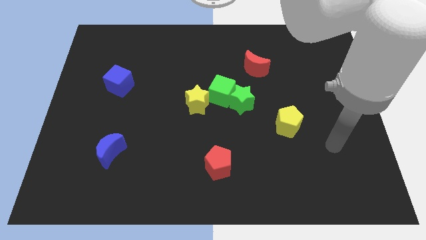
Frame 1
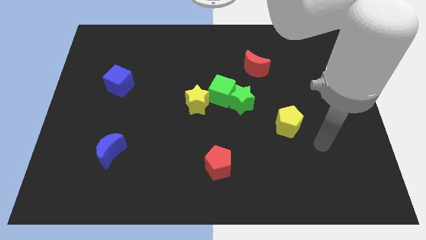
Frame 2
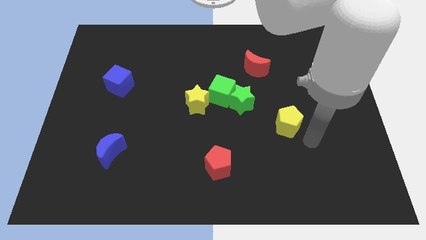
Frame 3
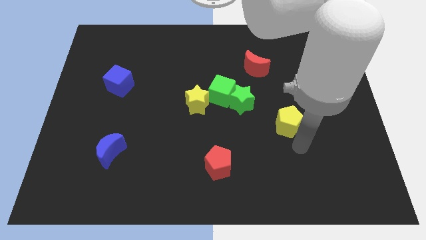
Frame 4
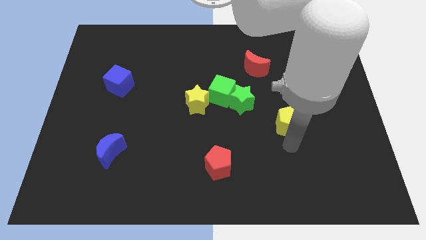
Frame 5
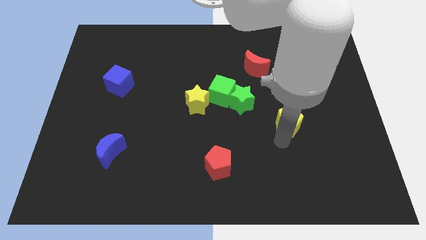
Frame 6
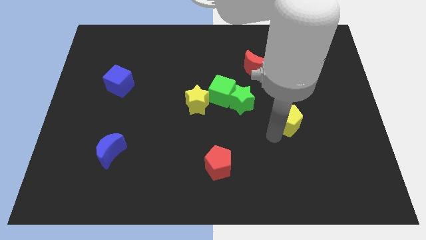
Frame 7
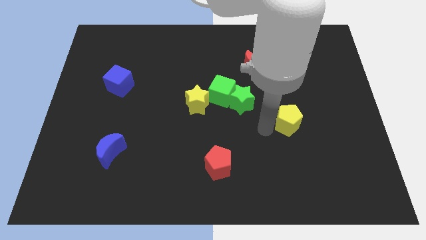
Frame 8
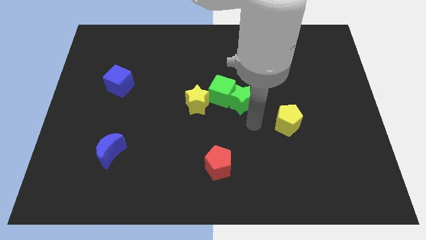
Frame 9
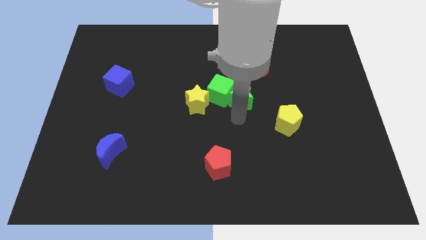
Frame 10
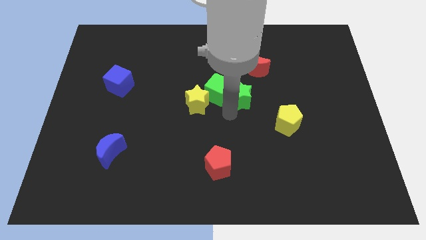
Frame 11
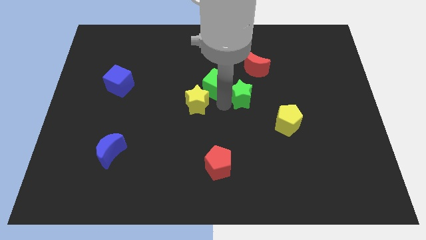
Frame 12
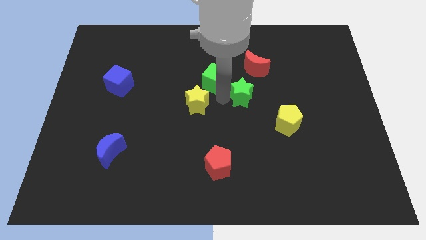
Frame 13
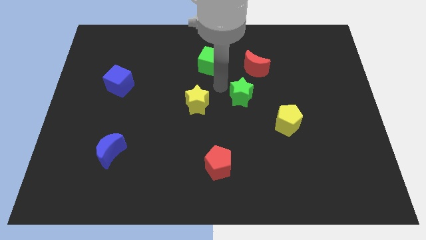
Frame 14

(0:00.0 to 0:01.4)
separate the green star from the green cube

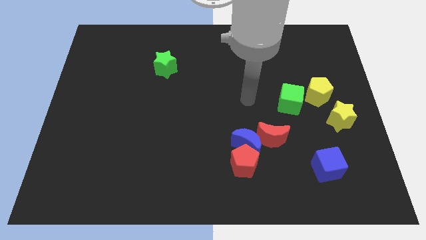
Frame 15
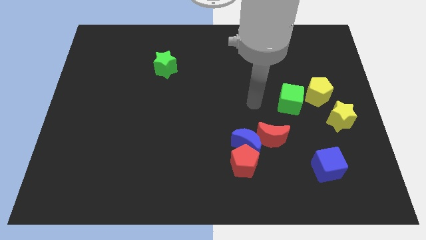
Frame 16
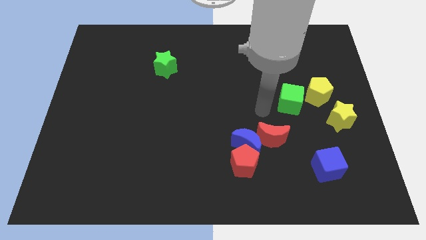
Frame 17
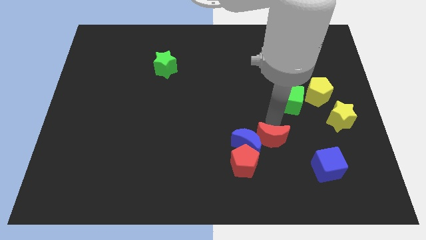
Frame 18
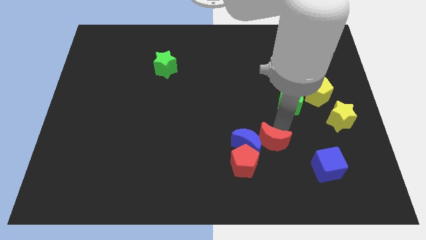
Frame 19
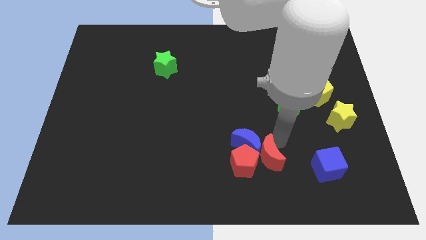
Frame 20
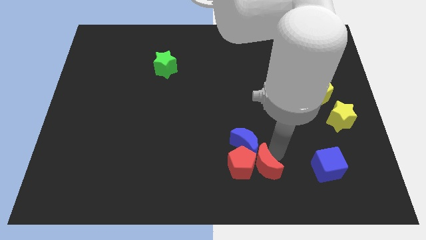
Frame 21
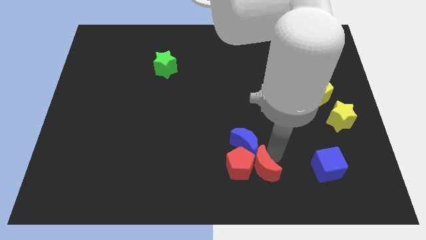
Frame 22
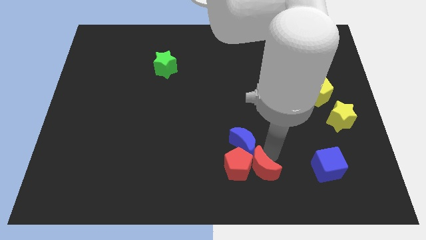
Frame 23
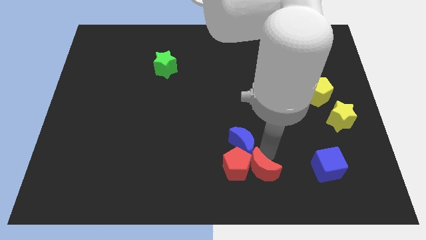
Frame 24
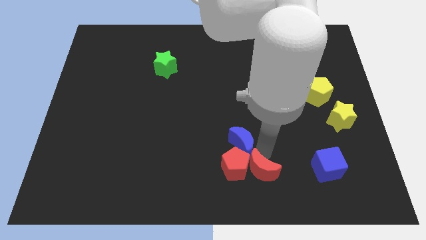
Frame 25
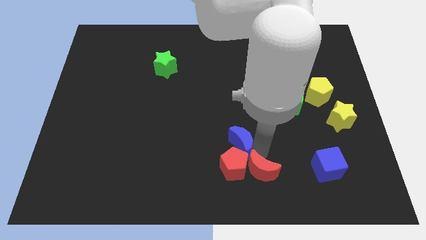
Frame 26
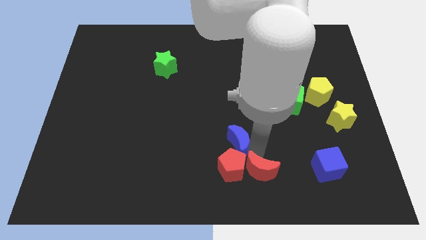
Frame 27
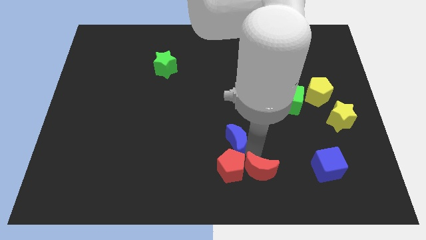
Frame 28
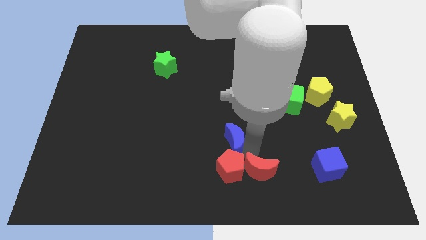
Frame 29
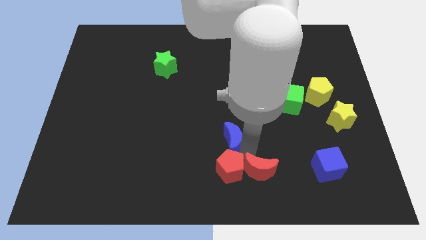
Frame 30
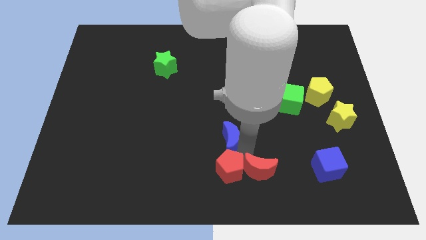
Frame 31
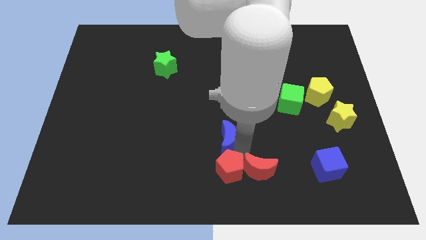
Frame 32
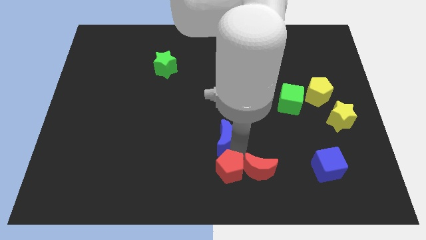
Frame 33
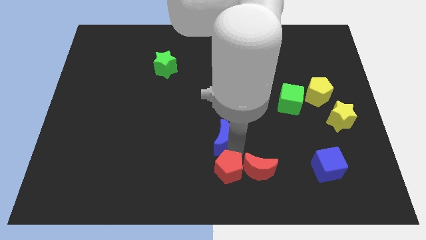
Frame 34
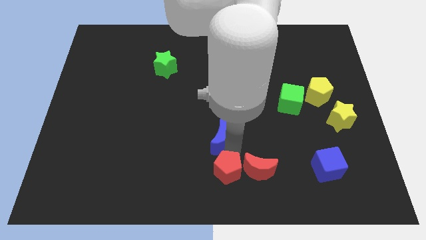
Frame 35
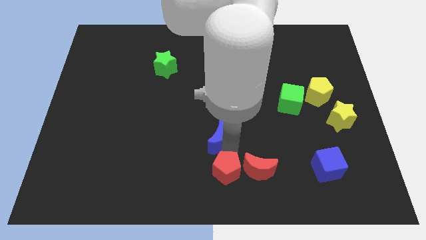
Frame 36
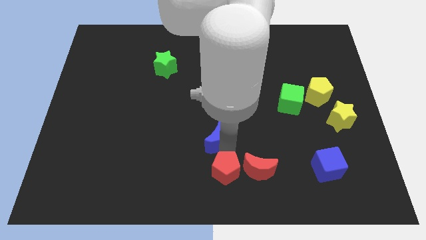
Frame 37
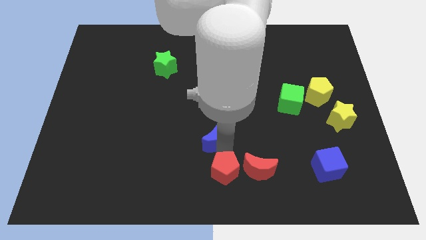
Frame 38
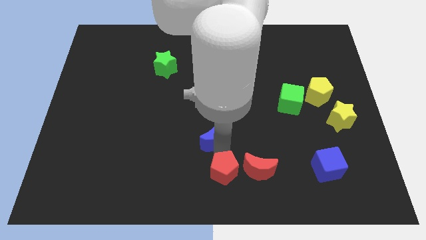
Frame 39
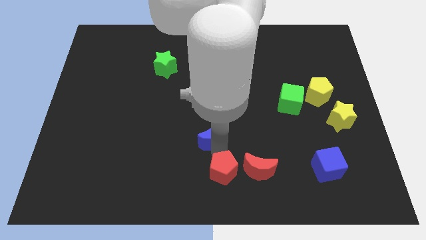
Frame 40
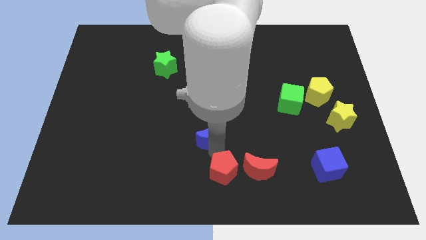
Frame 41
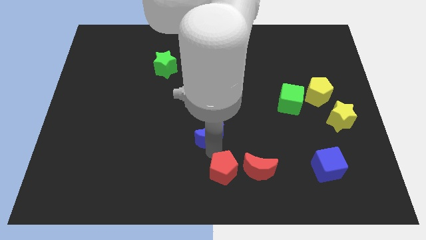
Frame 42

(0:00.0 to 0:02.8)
move the blue moon away from the red pentagon and red moon

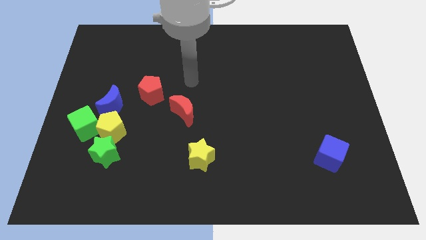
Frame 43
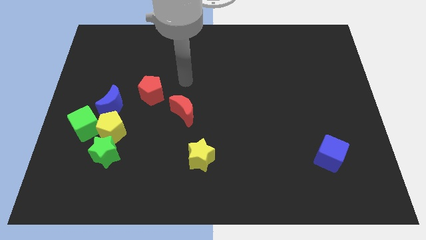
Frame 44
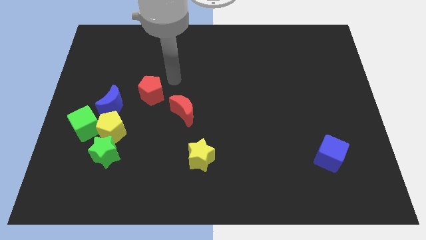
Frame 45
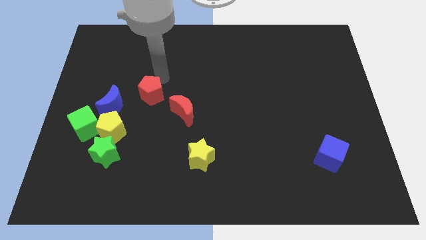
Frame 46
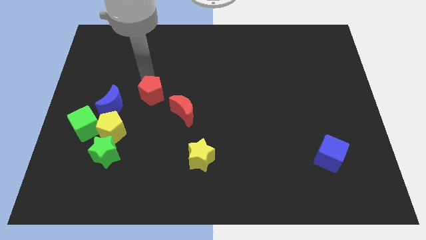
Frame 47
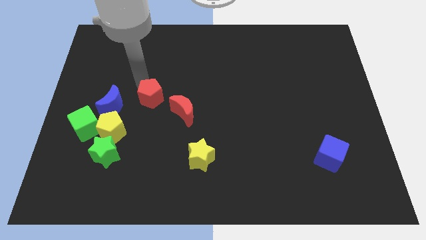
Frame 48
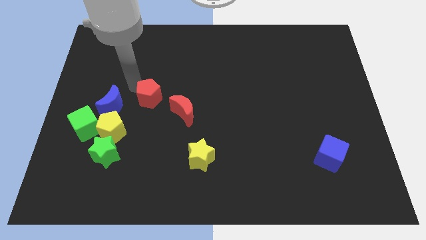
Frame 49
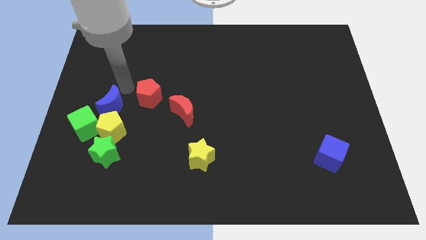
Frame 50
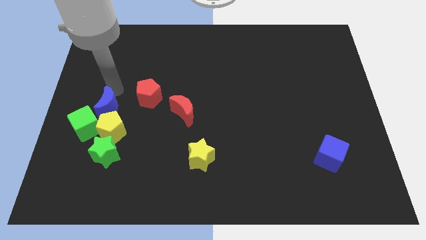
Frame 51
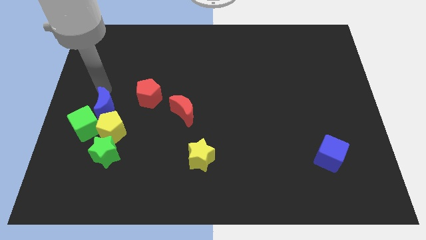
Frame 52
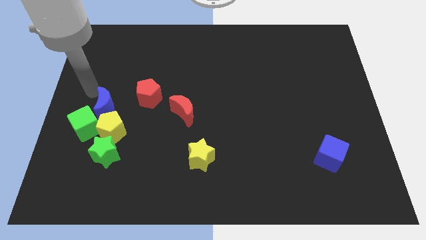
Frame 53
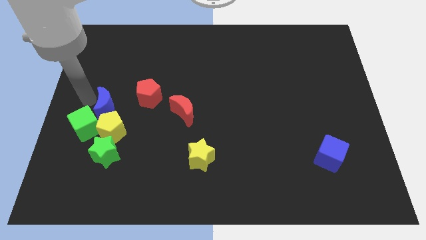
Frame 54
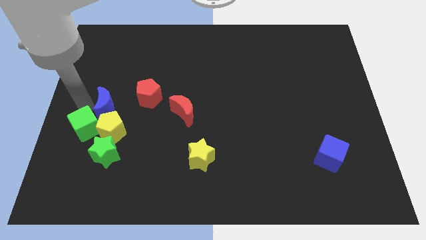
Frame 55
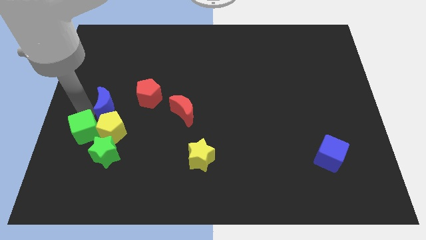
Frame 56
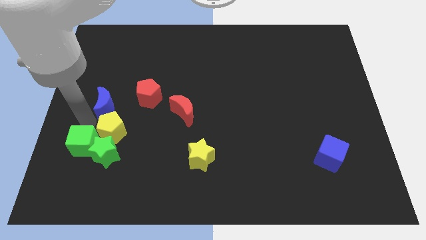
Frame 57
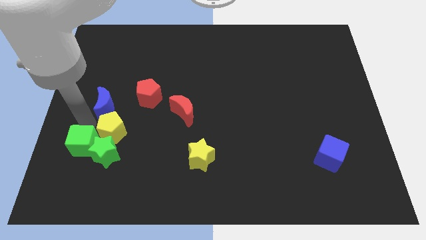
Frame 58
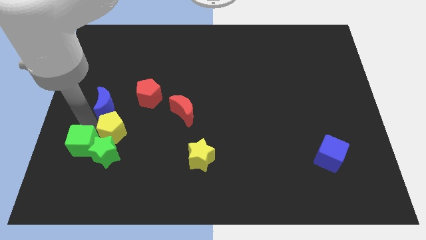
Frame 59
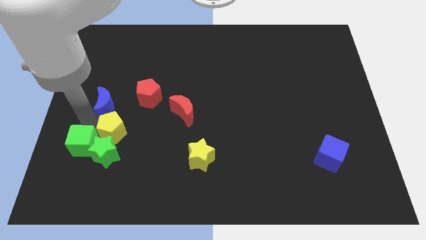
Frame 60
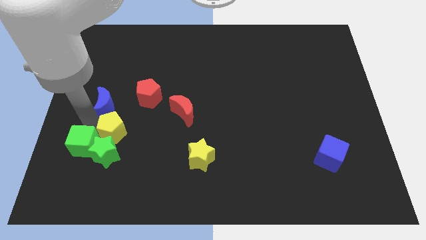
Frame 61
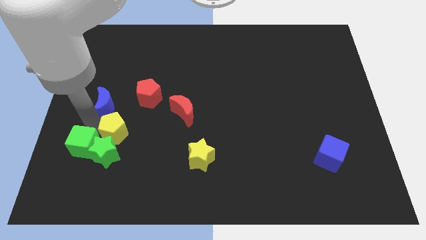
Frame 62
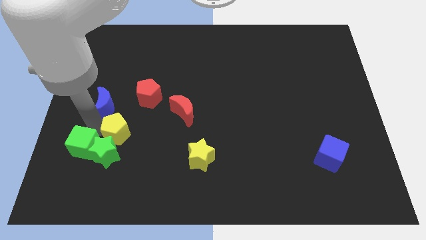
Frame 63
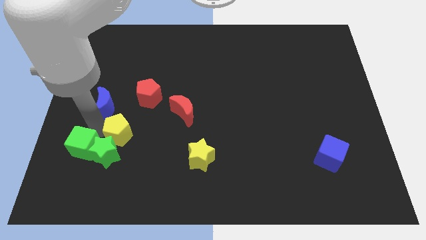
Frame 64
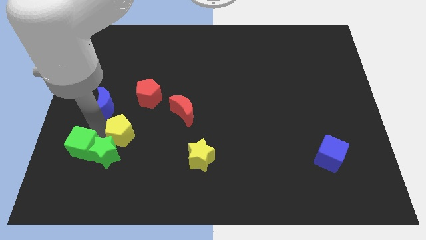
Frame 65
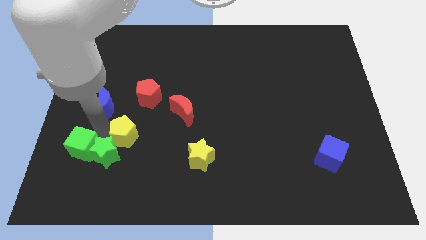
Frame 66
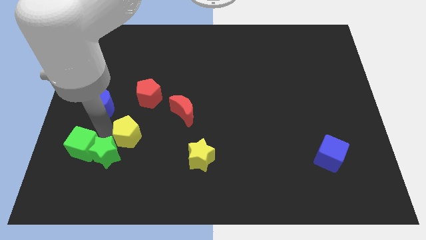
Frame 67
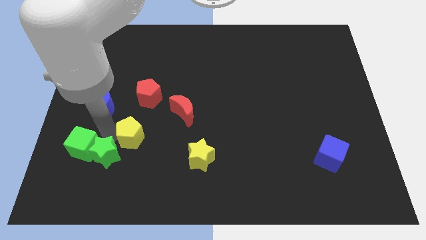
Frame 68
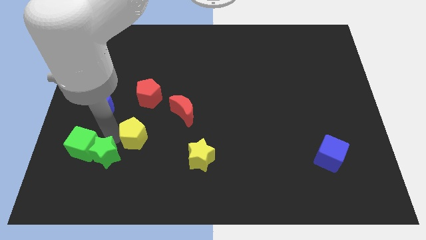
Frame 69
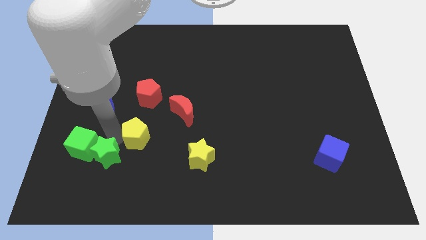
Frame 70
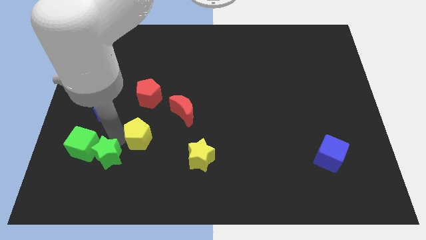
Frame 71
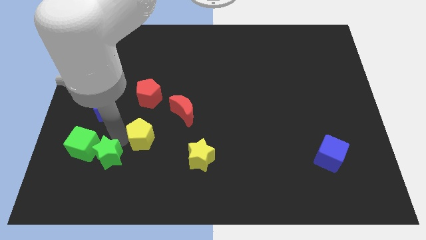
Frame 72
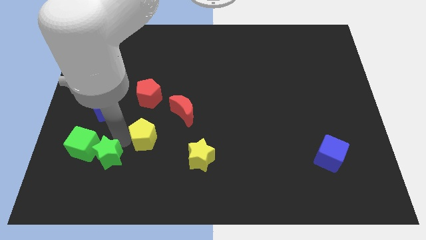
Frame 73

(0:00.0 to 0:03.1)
pull the yellow pentagon apart from the green star, green cube, and blue moon

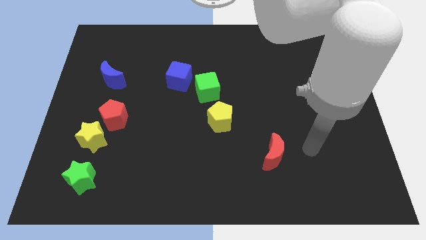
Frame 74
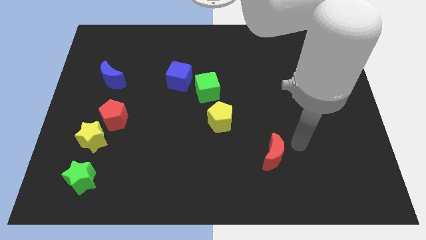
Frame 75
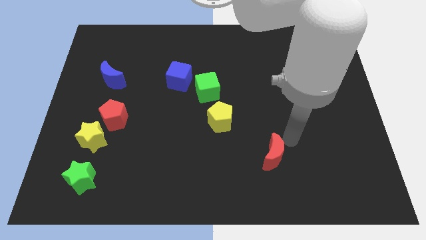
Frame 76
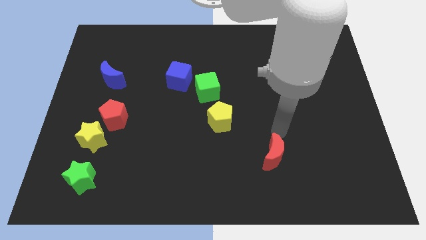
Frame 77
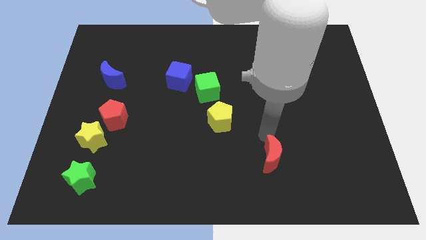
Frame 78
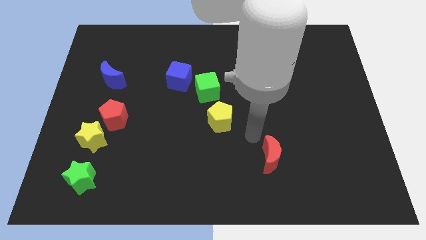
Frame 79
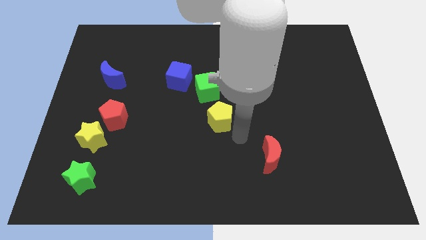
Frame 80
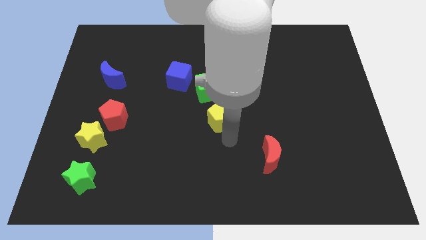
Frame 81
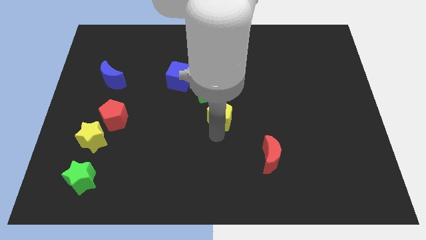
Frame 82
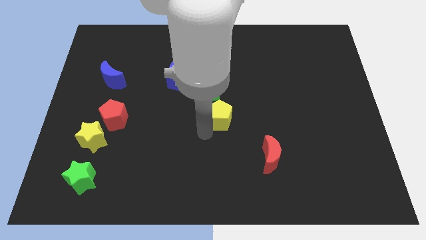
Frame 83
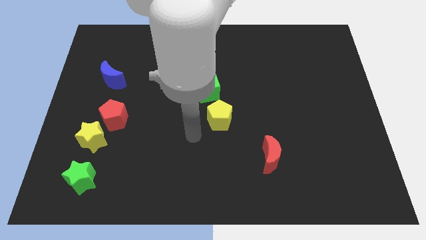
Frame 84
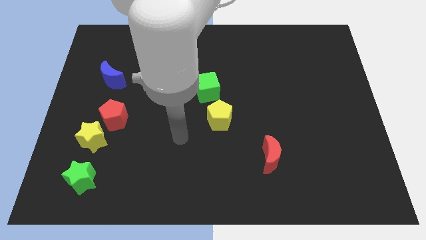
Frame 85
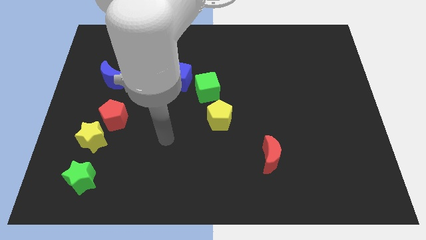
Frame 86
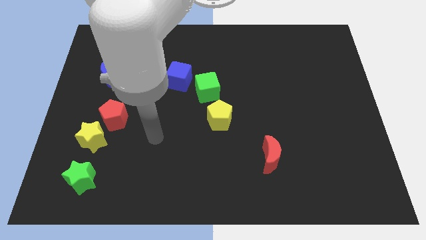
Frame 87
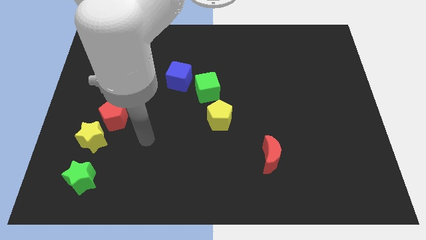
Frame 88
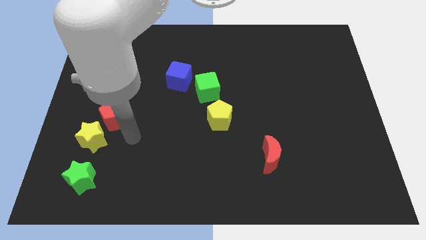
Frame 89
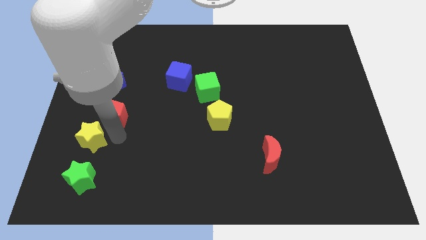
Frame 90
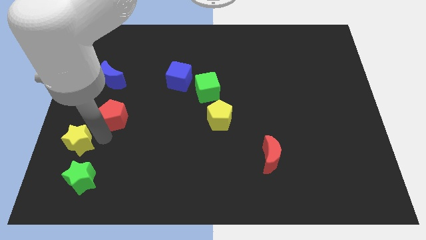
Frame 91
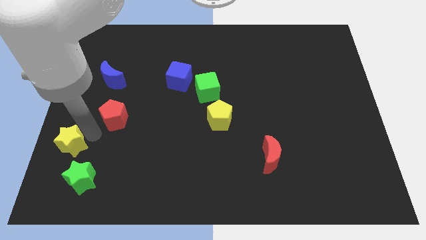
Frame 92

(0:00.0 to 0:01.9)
move the red pentagon away from the yellow star
